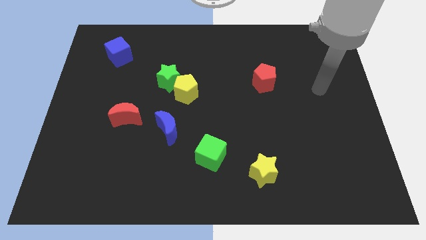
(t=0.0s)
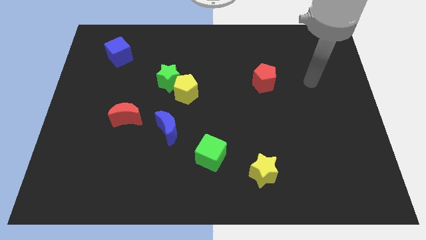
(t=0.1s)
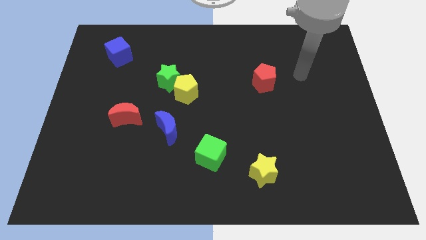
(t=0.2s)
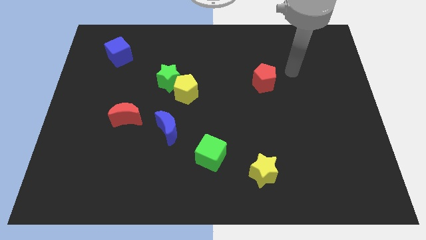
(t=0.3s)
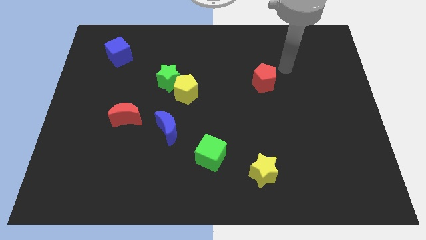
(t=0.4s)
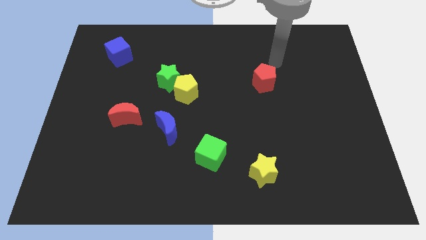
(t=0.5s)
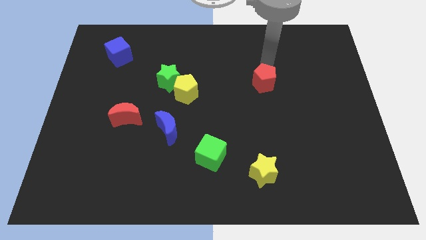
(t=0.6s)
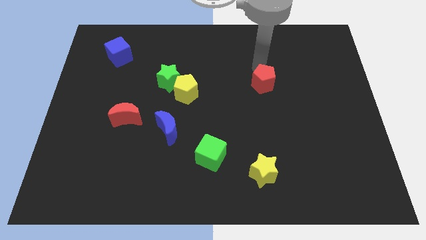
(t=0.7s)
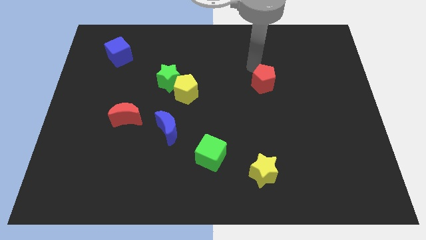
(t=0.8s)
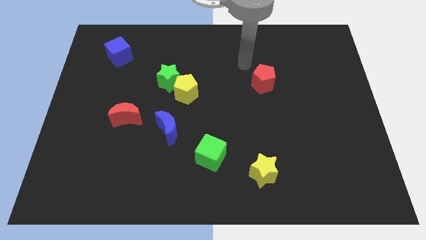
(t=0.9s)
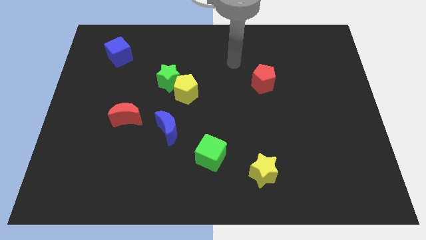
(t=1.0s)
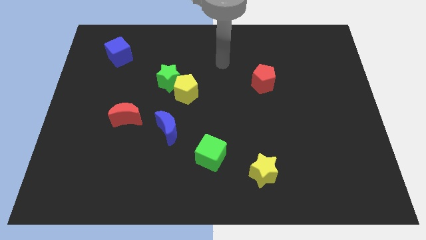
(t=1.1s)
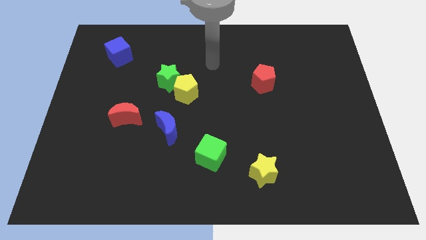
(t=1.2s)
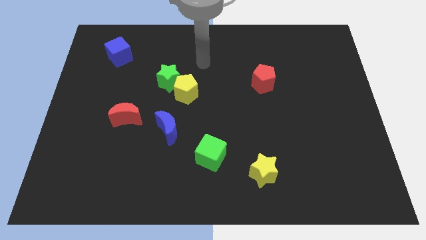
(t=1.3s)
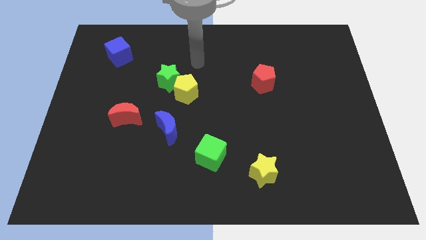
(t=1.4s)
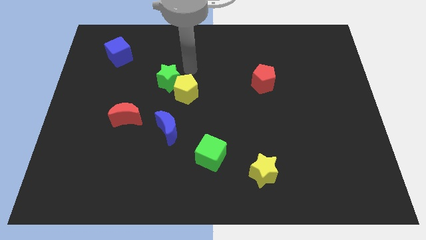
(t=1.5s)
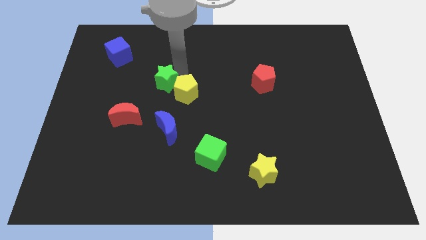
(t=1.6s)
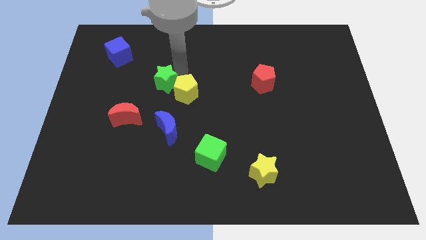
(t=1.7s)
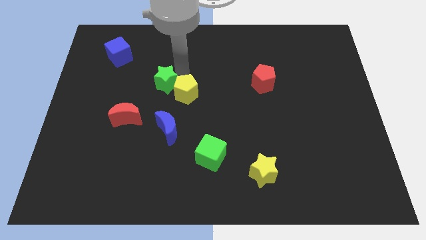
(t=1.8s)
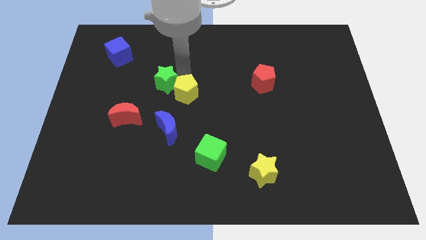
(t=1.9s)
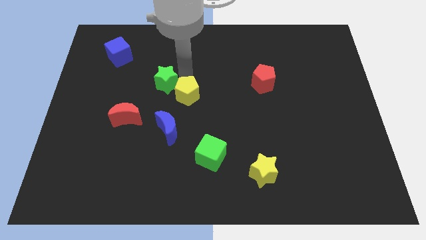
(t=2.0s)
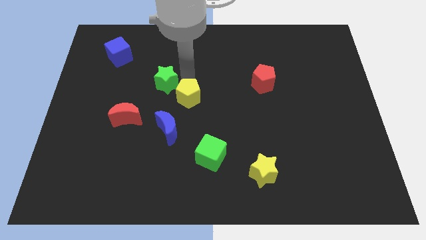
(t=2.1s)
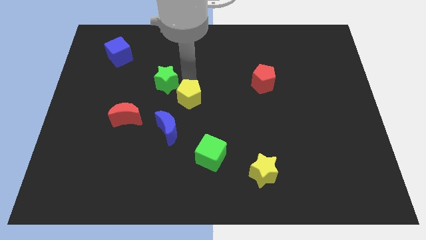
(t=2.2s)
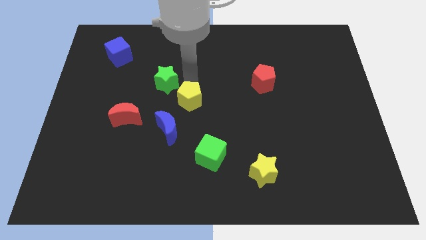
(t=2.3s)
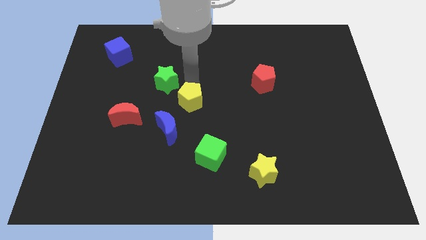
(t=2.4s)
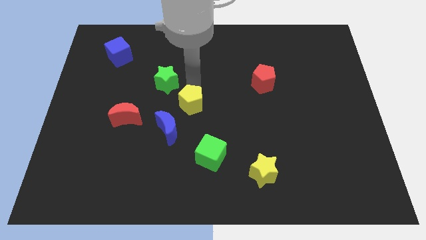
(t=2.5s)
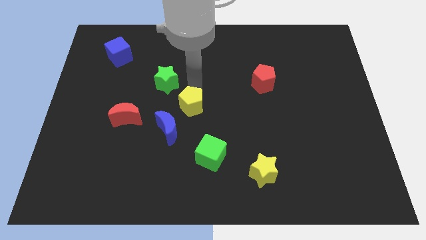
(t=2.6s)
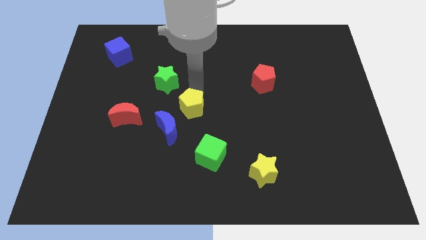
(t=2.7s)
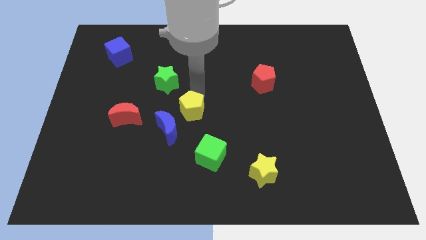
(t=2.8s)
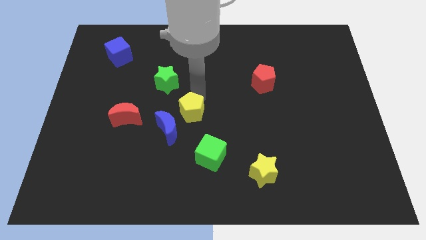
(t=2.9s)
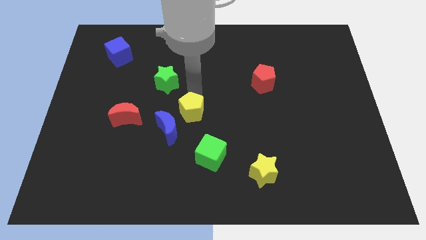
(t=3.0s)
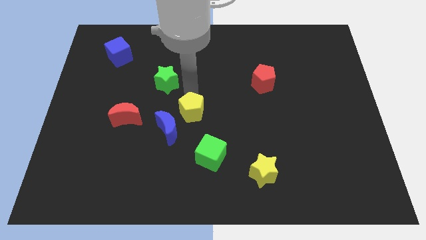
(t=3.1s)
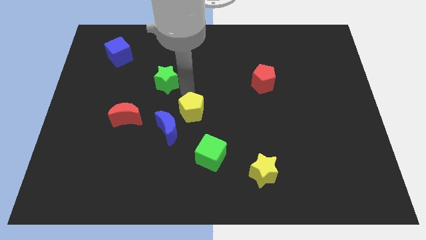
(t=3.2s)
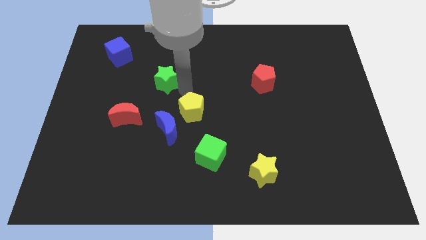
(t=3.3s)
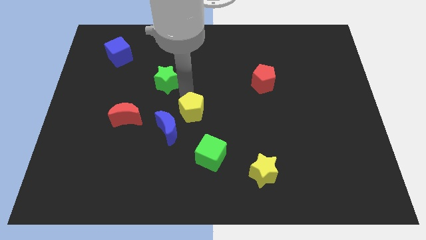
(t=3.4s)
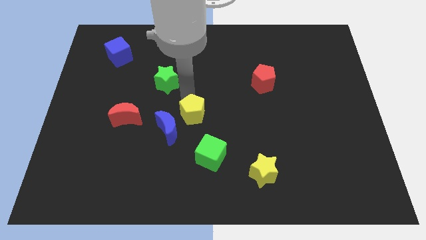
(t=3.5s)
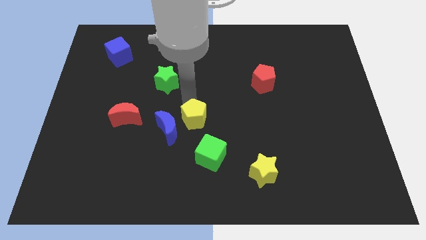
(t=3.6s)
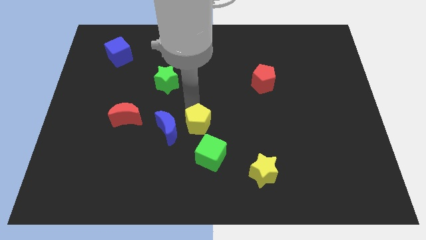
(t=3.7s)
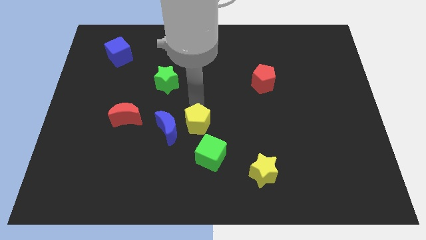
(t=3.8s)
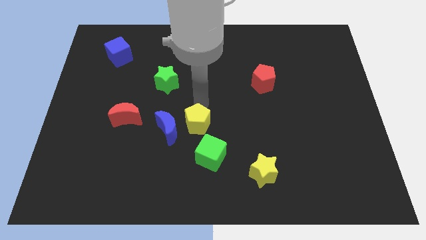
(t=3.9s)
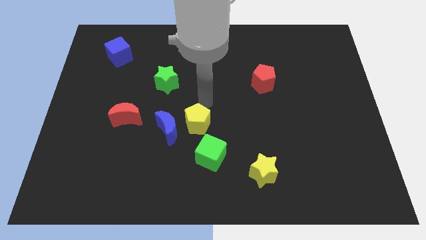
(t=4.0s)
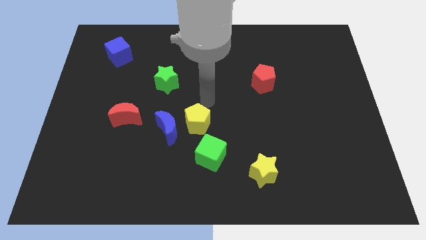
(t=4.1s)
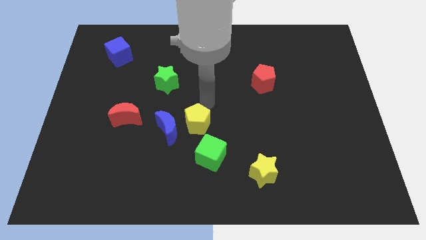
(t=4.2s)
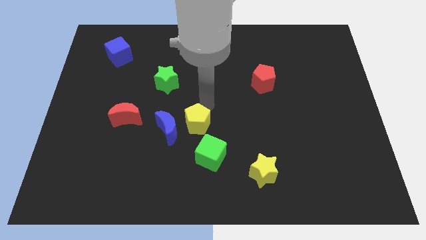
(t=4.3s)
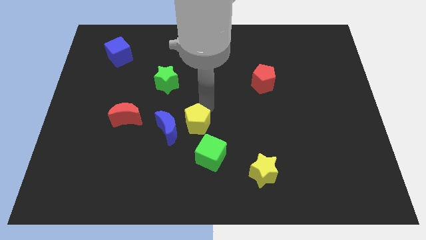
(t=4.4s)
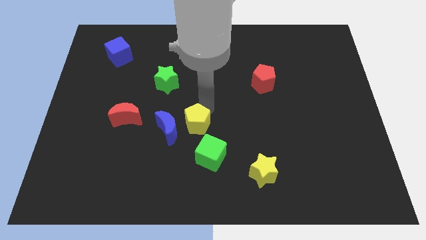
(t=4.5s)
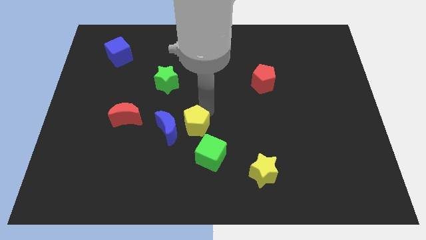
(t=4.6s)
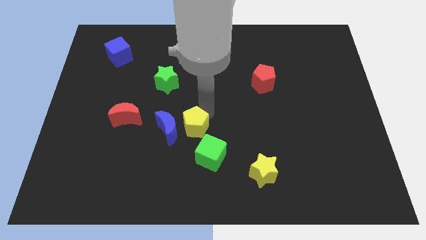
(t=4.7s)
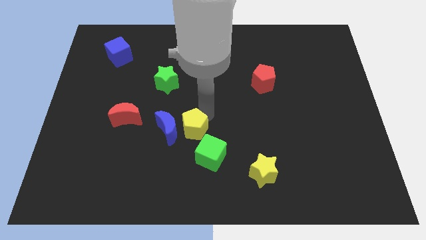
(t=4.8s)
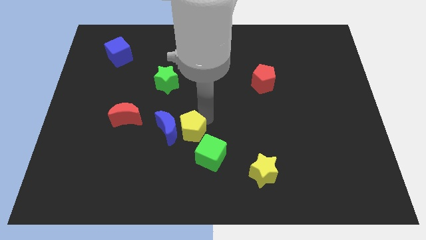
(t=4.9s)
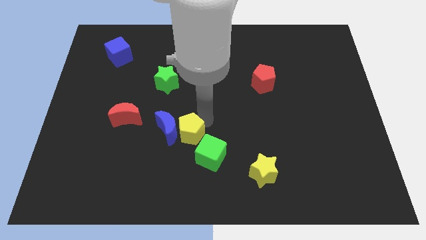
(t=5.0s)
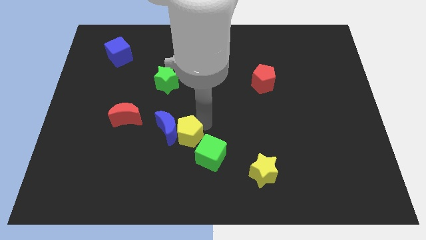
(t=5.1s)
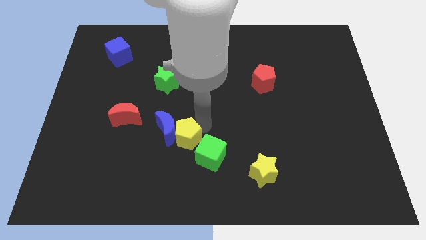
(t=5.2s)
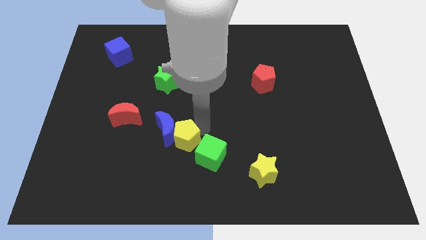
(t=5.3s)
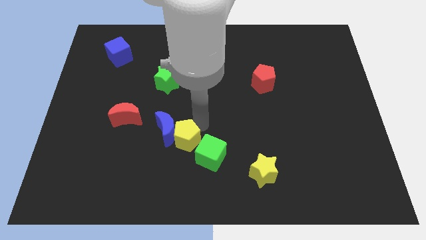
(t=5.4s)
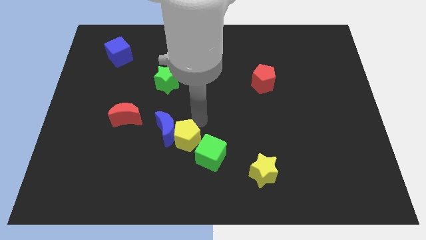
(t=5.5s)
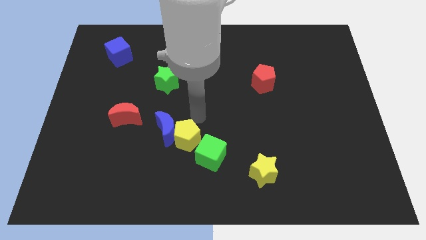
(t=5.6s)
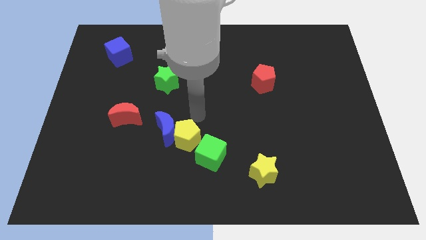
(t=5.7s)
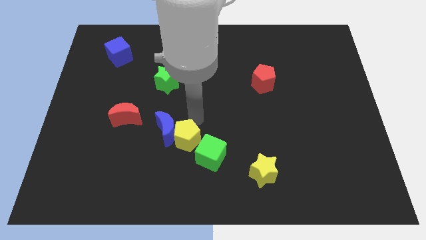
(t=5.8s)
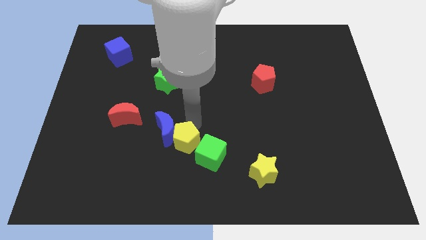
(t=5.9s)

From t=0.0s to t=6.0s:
push the yellow pentagon to the bottom side of the blue moon
